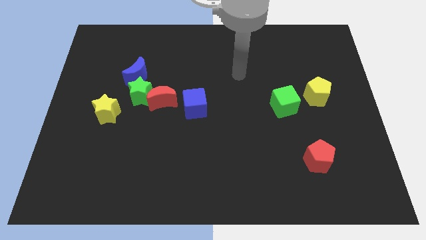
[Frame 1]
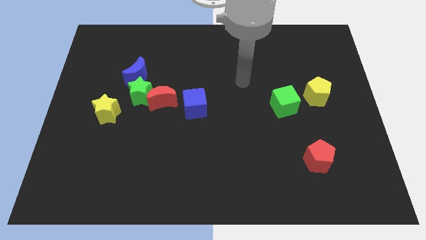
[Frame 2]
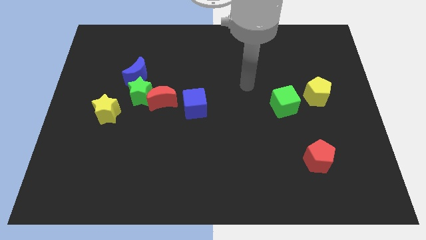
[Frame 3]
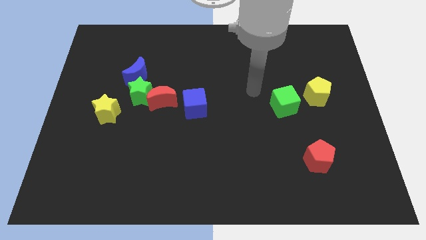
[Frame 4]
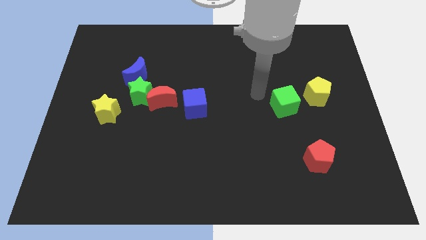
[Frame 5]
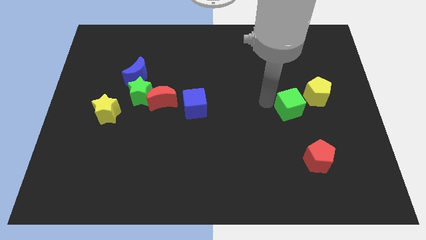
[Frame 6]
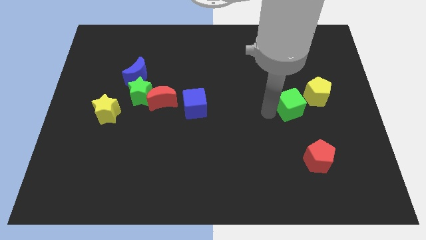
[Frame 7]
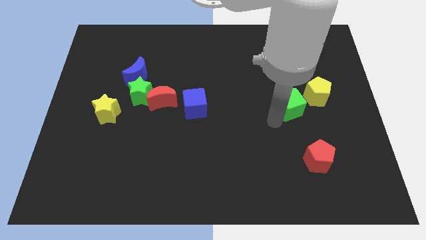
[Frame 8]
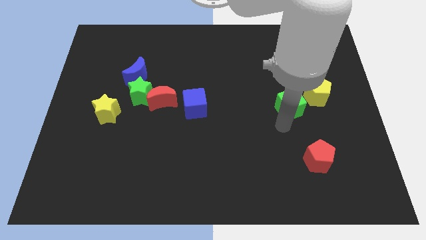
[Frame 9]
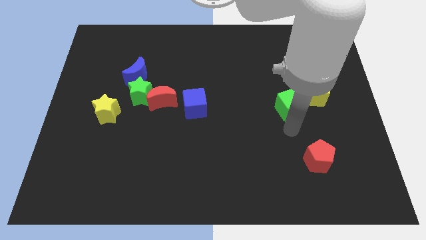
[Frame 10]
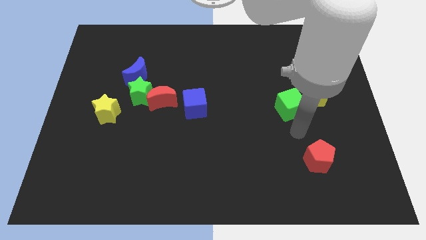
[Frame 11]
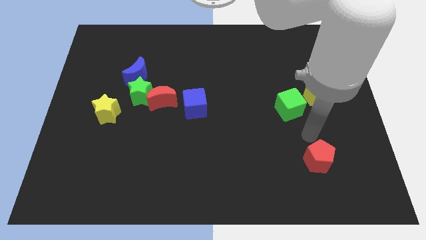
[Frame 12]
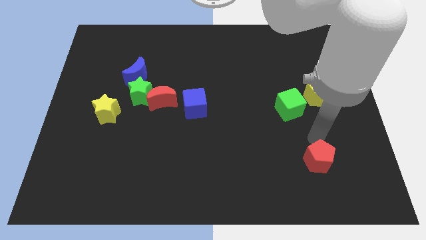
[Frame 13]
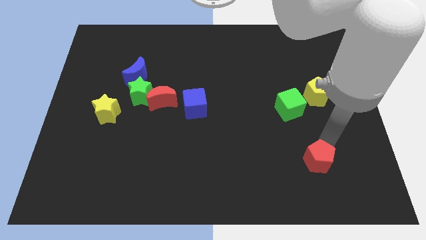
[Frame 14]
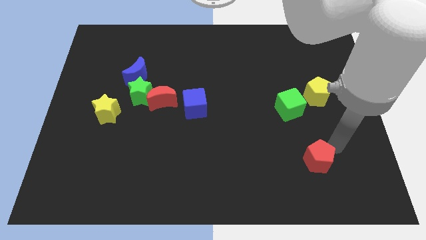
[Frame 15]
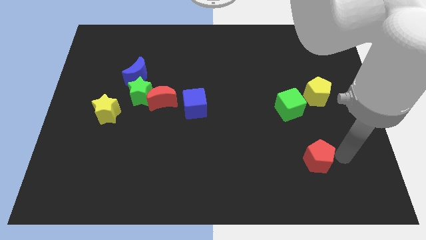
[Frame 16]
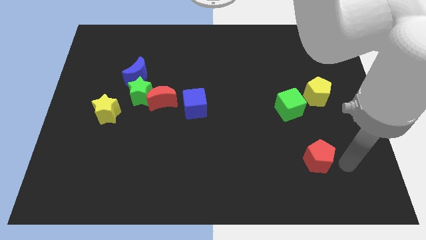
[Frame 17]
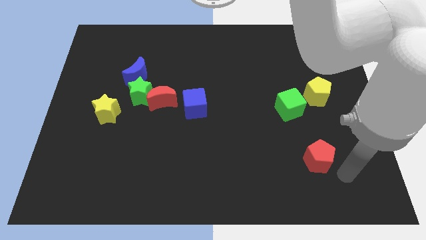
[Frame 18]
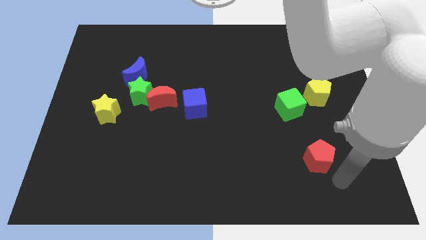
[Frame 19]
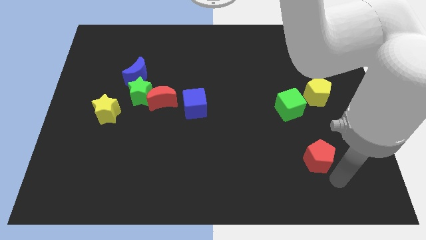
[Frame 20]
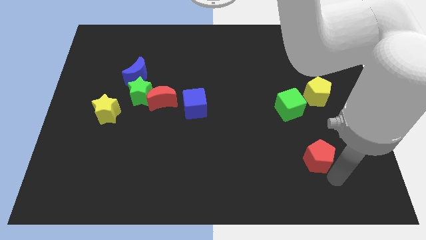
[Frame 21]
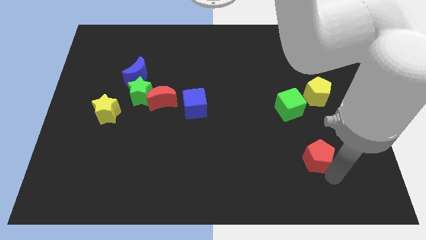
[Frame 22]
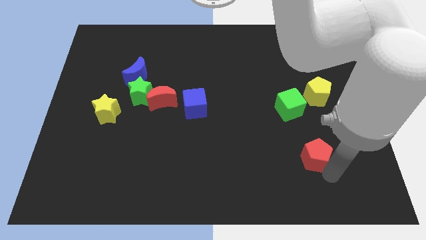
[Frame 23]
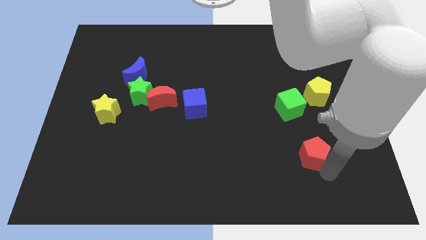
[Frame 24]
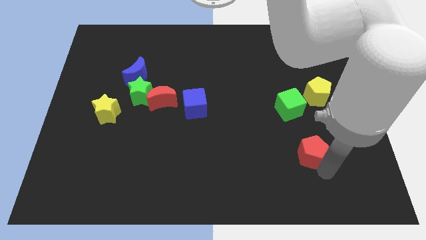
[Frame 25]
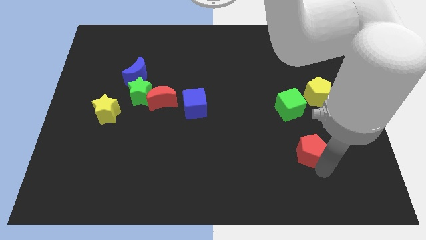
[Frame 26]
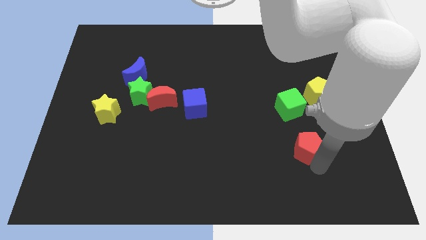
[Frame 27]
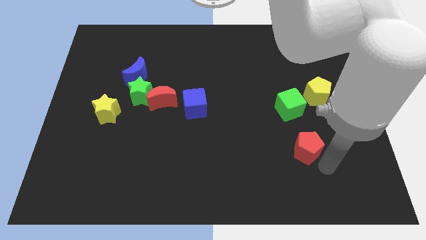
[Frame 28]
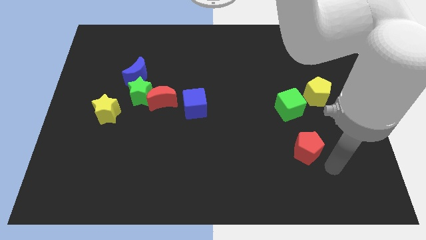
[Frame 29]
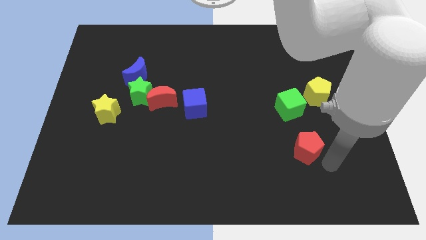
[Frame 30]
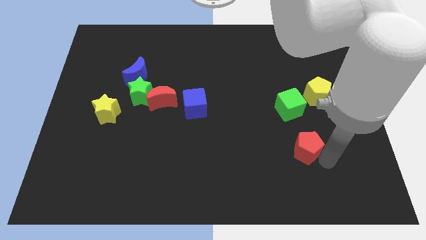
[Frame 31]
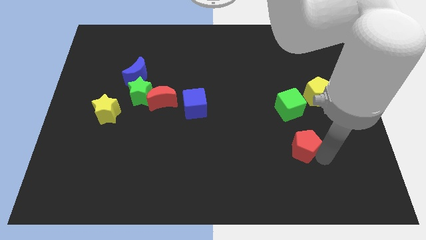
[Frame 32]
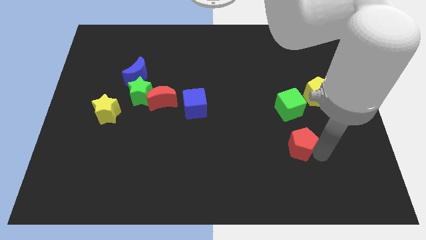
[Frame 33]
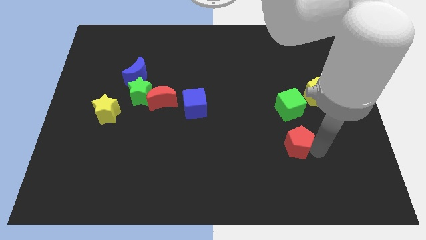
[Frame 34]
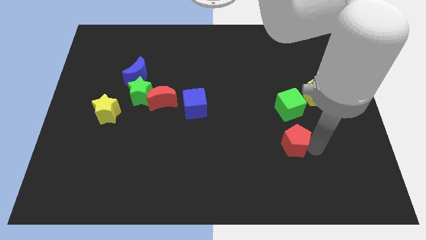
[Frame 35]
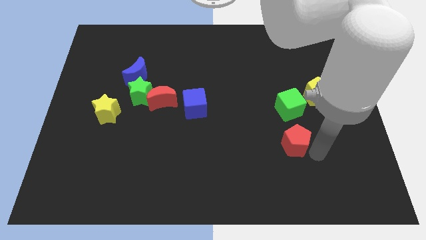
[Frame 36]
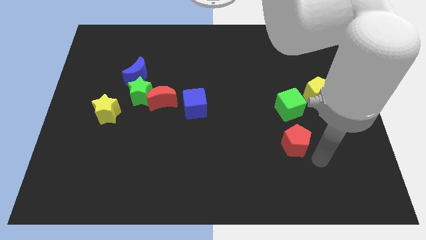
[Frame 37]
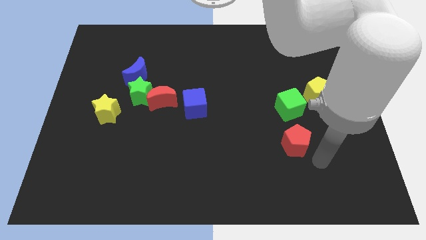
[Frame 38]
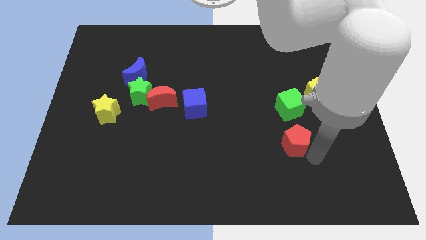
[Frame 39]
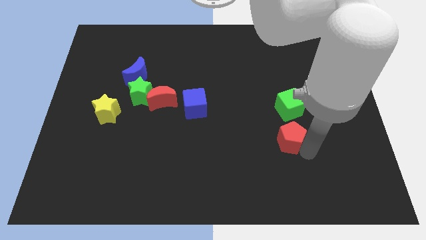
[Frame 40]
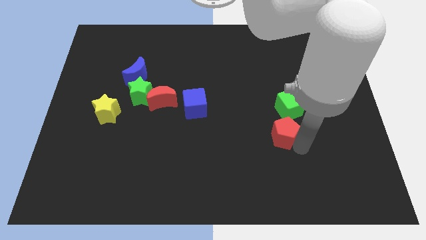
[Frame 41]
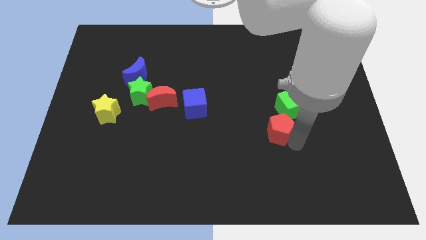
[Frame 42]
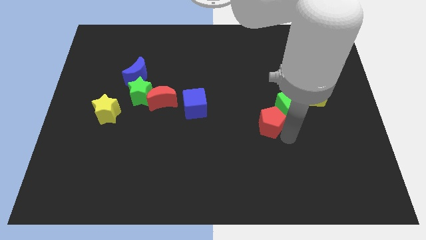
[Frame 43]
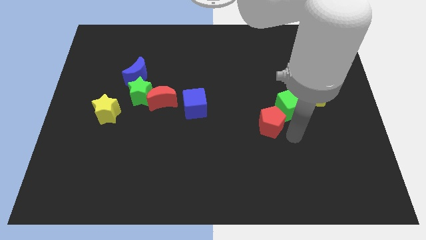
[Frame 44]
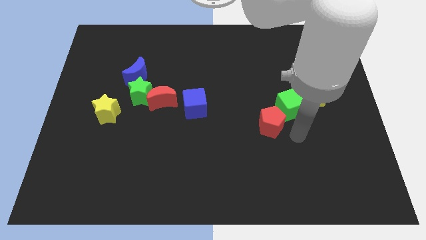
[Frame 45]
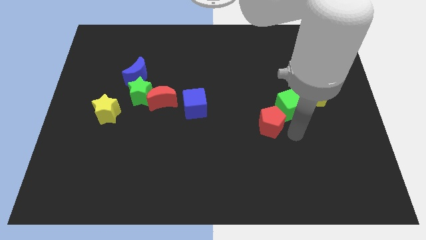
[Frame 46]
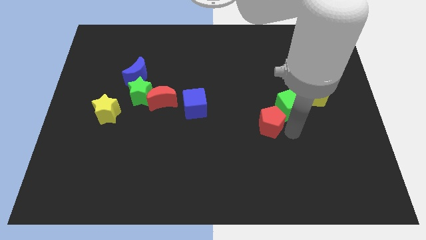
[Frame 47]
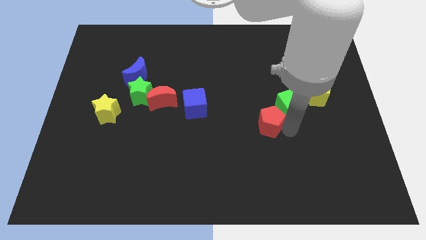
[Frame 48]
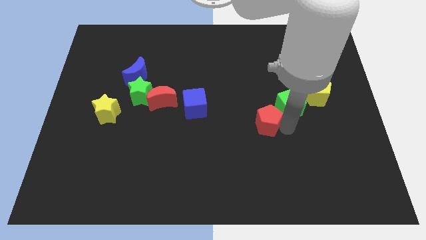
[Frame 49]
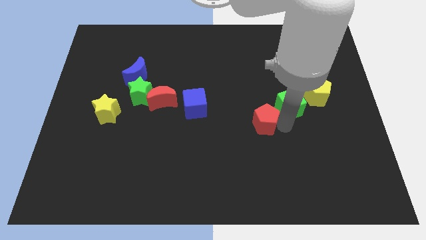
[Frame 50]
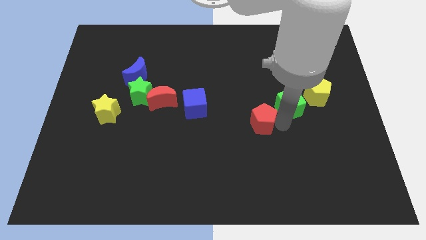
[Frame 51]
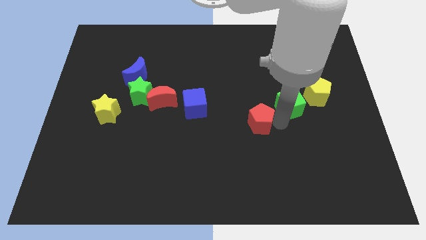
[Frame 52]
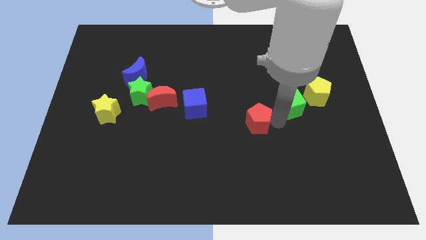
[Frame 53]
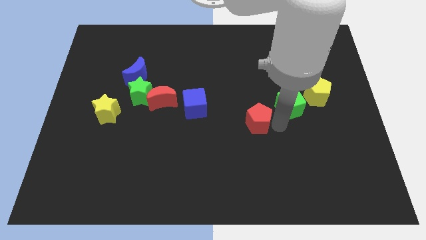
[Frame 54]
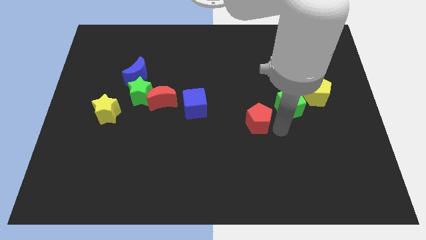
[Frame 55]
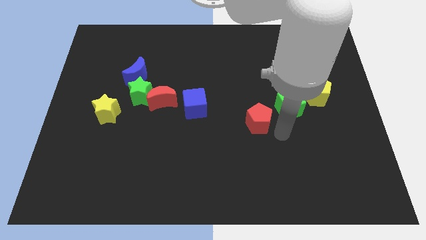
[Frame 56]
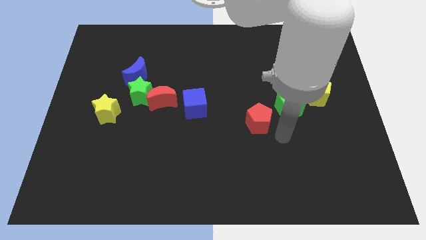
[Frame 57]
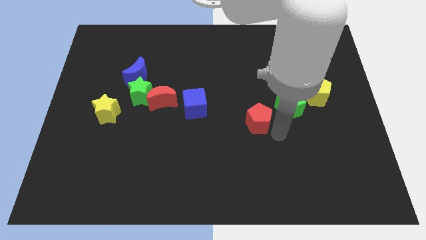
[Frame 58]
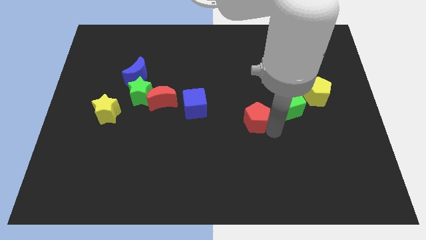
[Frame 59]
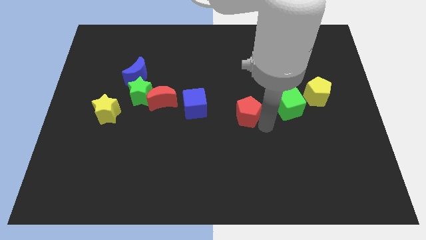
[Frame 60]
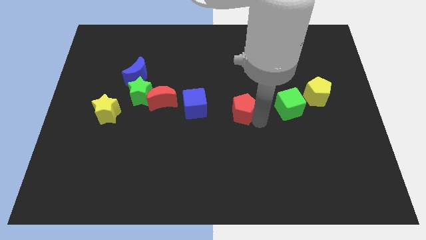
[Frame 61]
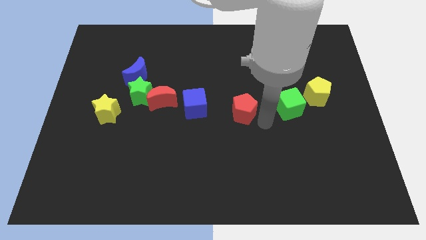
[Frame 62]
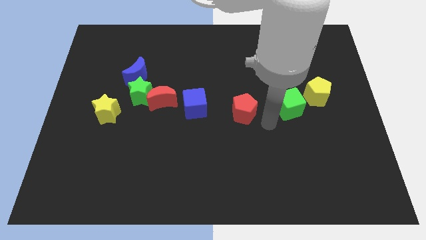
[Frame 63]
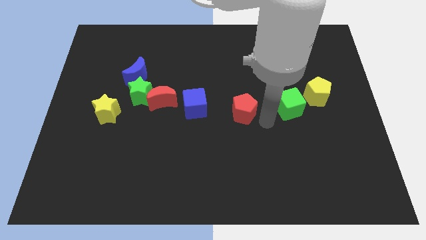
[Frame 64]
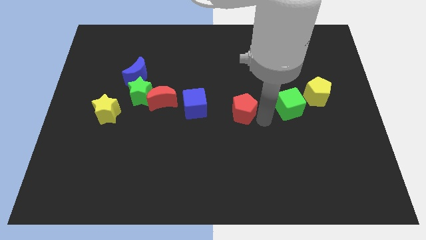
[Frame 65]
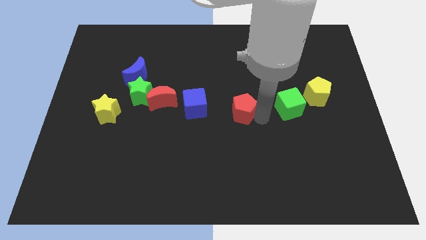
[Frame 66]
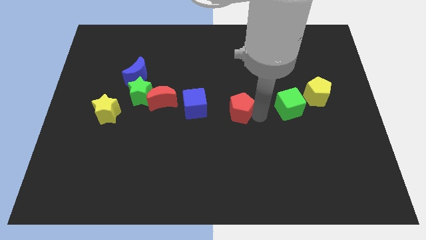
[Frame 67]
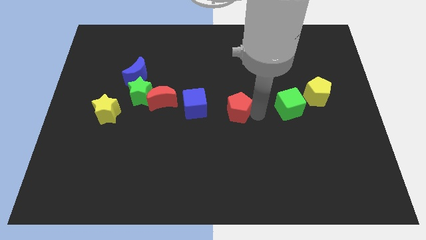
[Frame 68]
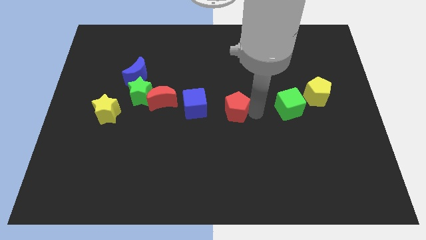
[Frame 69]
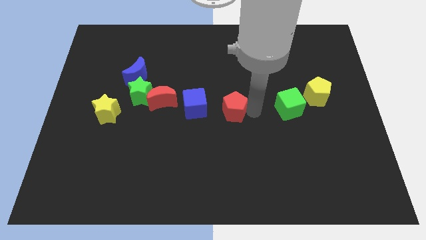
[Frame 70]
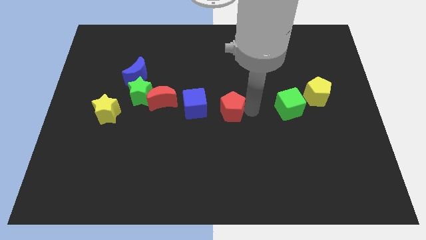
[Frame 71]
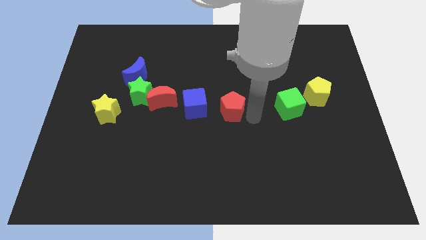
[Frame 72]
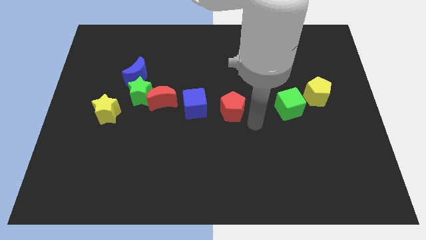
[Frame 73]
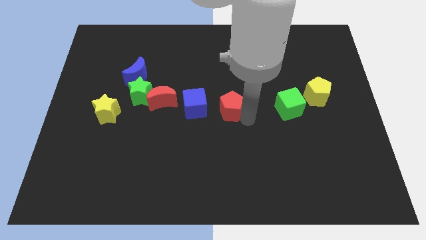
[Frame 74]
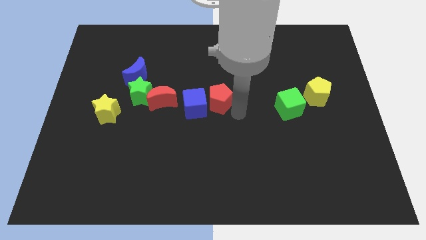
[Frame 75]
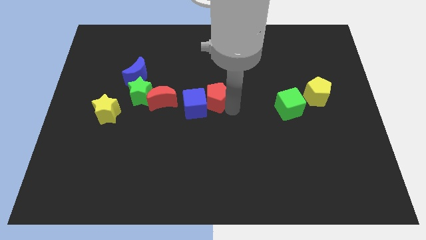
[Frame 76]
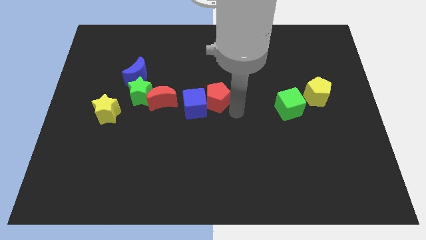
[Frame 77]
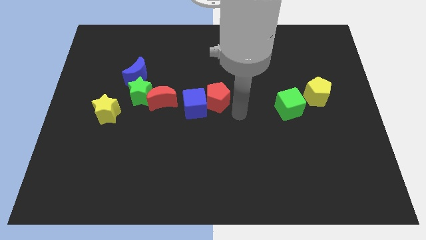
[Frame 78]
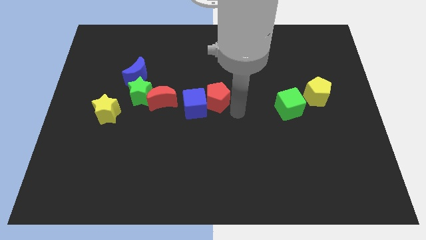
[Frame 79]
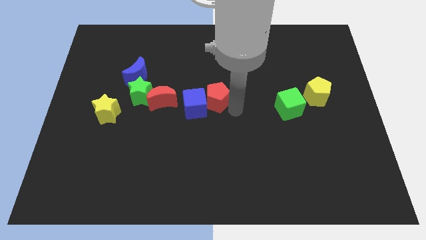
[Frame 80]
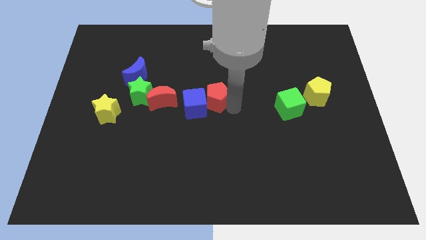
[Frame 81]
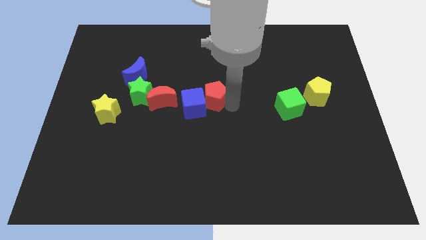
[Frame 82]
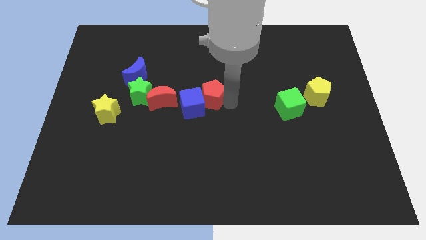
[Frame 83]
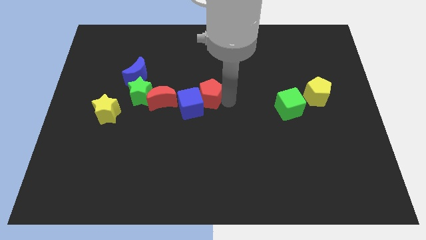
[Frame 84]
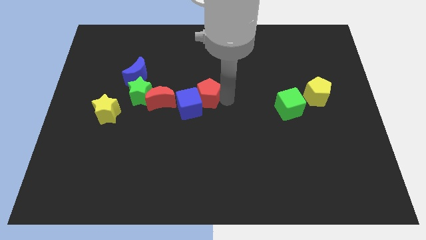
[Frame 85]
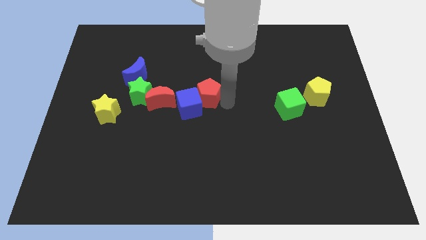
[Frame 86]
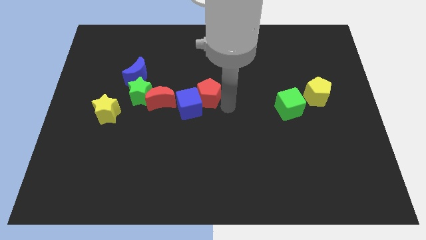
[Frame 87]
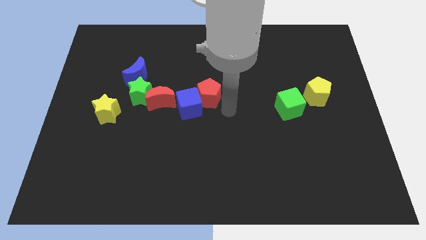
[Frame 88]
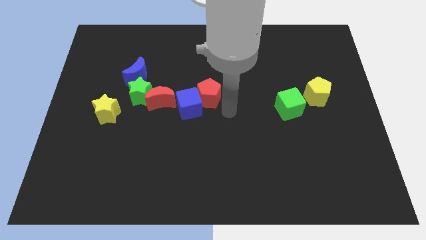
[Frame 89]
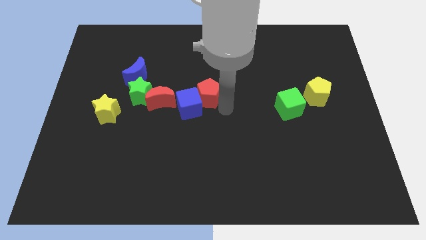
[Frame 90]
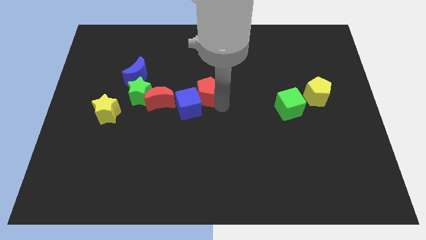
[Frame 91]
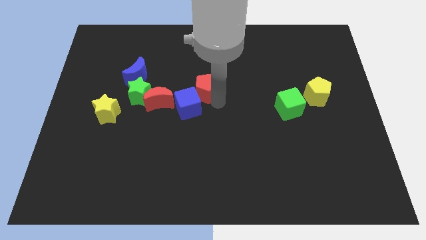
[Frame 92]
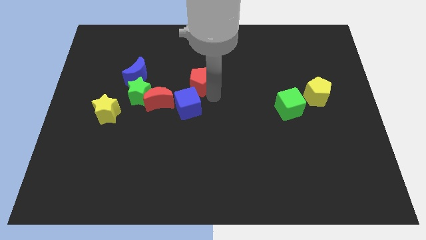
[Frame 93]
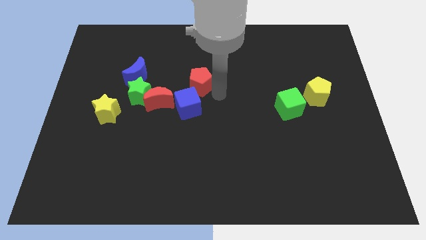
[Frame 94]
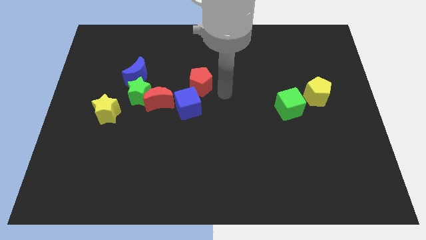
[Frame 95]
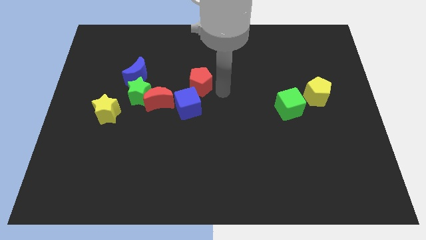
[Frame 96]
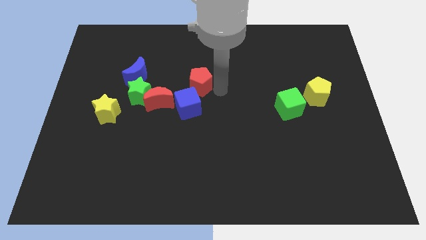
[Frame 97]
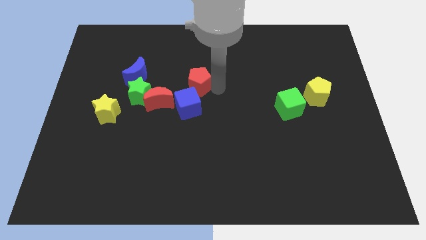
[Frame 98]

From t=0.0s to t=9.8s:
push the red pentagon just right of the blue moon
